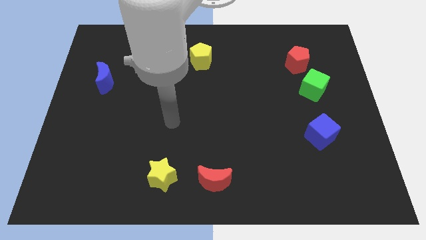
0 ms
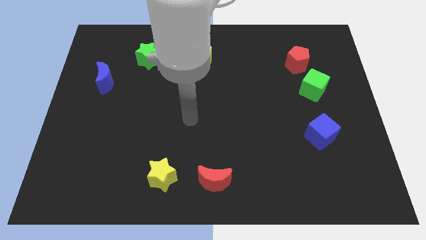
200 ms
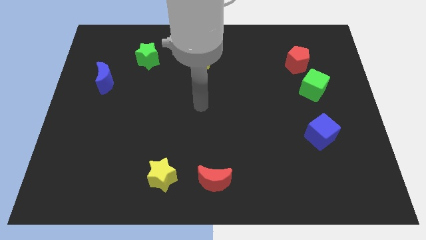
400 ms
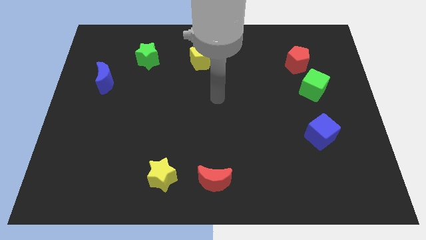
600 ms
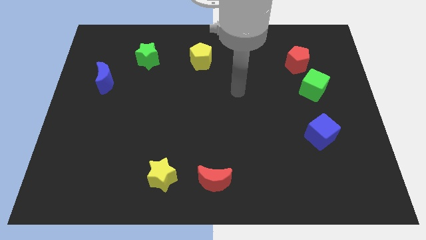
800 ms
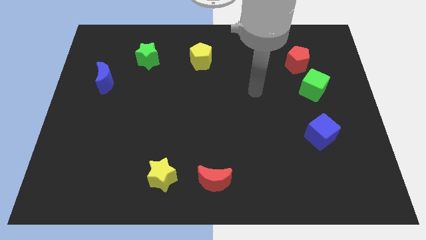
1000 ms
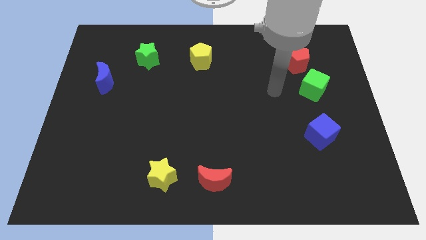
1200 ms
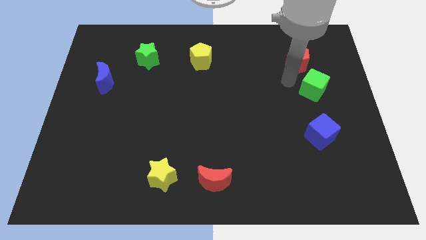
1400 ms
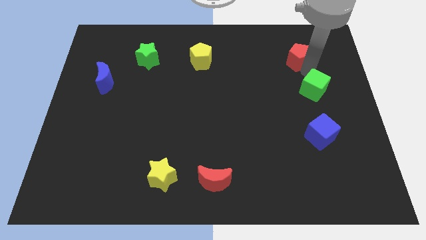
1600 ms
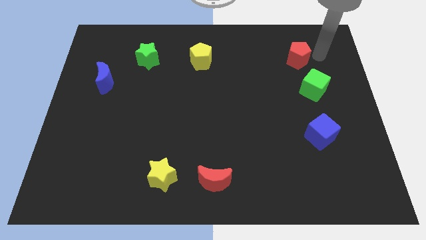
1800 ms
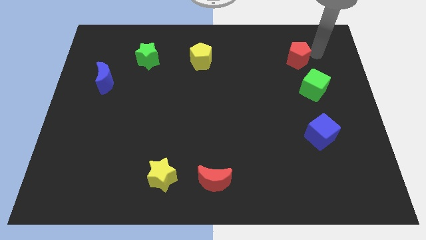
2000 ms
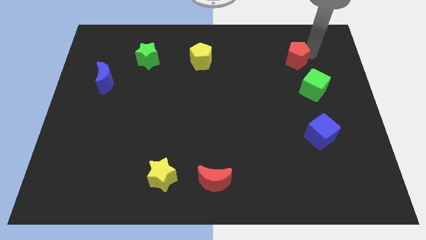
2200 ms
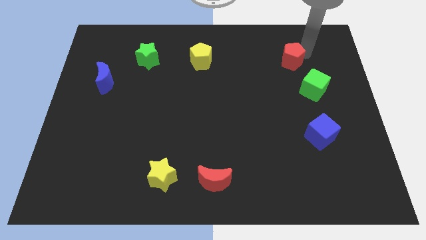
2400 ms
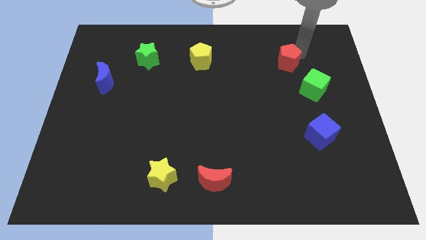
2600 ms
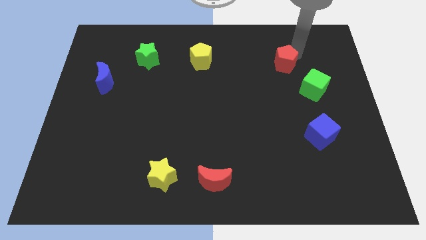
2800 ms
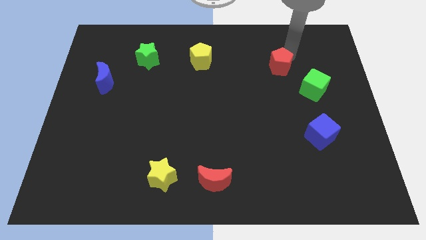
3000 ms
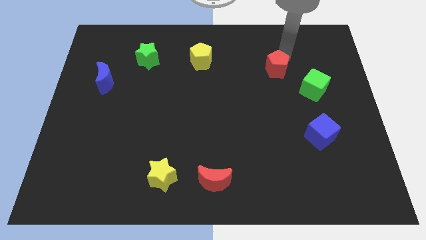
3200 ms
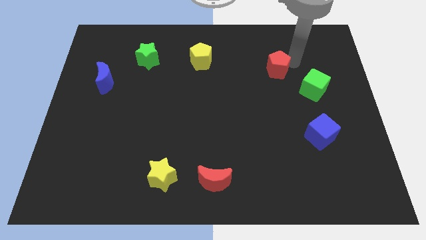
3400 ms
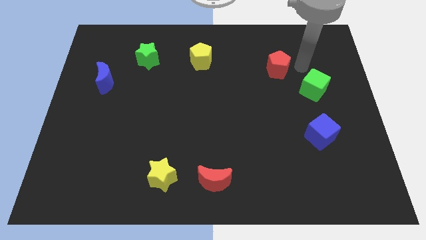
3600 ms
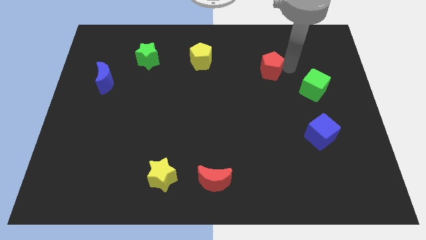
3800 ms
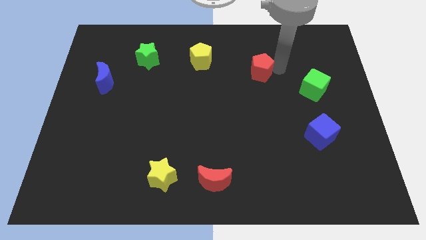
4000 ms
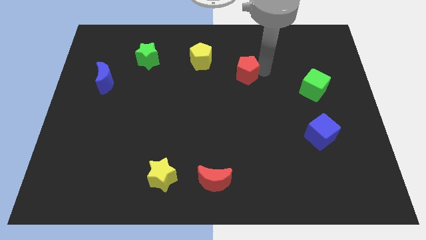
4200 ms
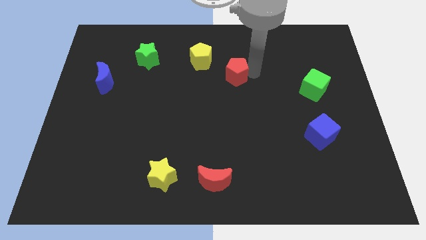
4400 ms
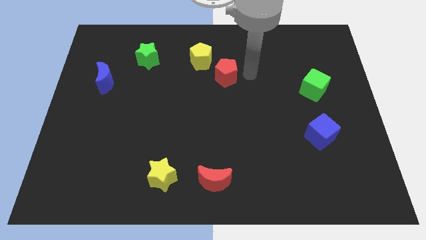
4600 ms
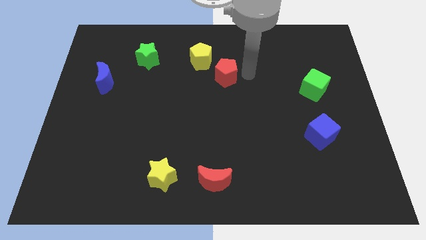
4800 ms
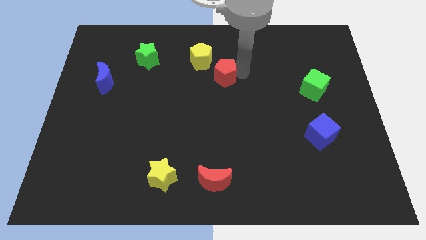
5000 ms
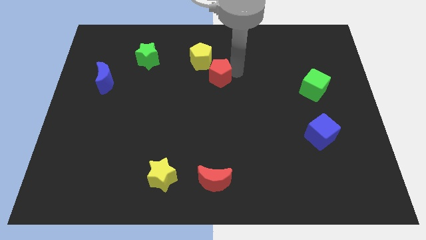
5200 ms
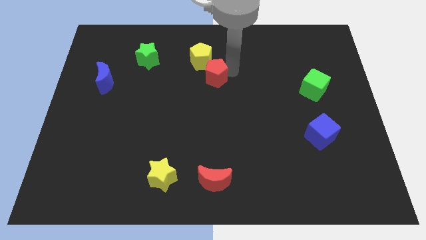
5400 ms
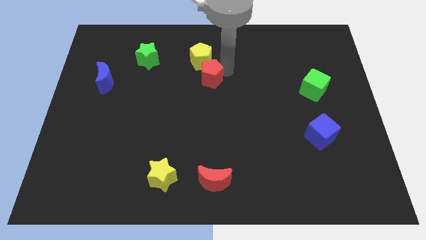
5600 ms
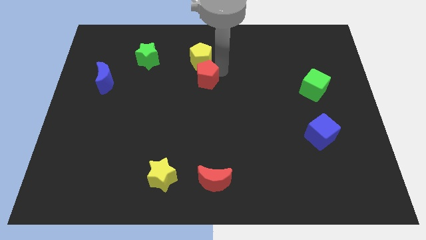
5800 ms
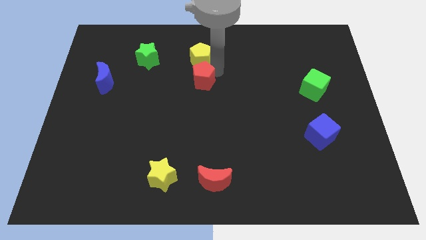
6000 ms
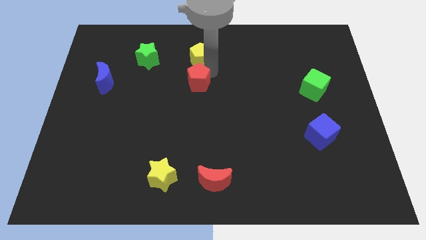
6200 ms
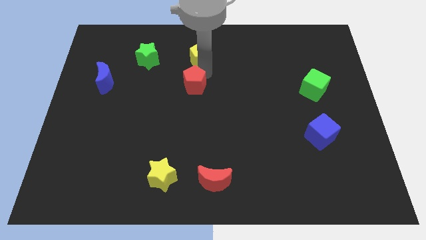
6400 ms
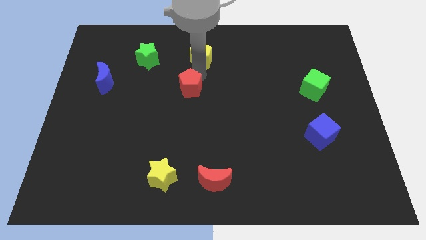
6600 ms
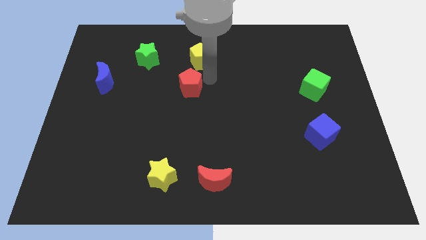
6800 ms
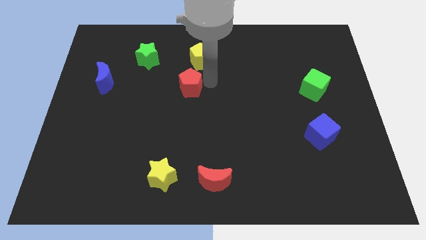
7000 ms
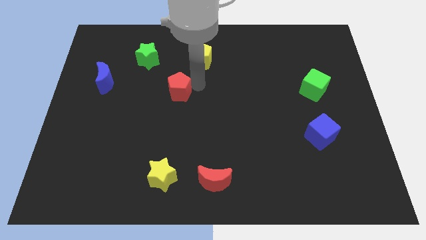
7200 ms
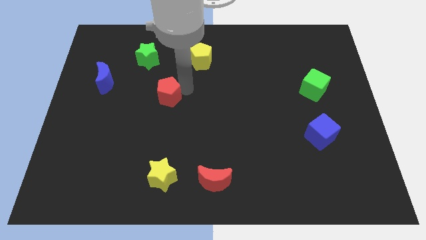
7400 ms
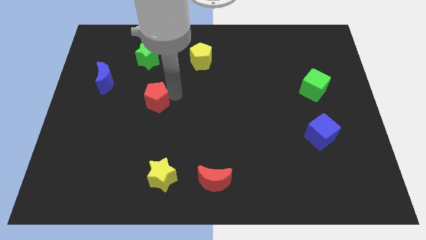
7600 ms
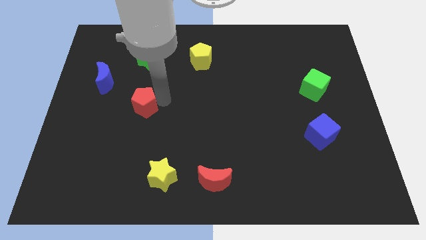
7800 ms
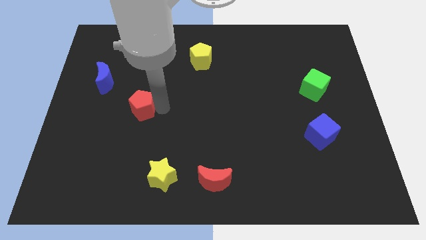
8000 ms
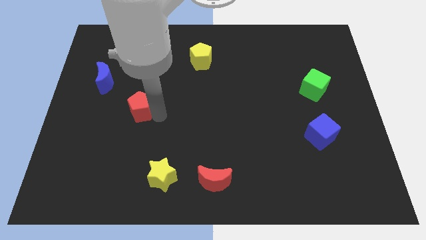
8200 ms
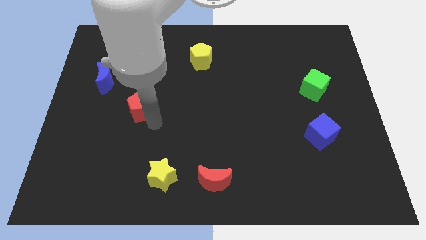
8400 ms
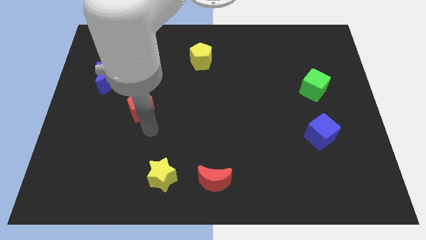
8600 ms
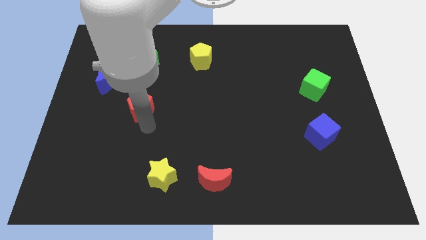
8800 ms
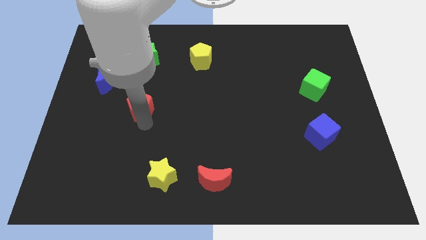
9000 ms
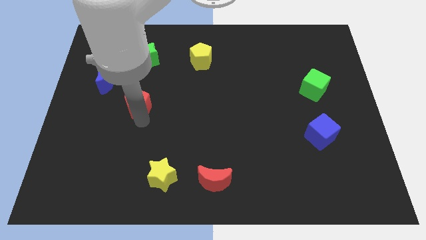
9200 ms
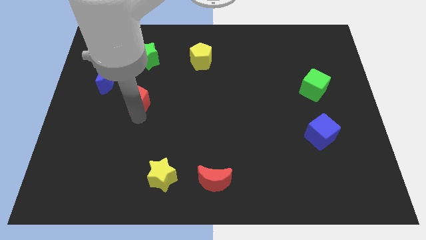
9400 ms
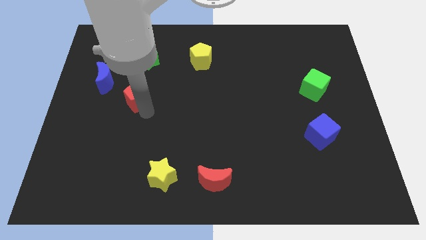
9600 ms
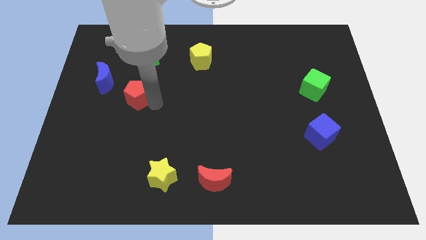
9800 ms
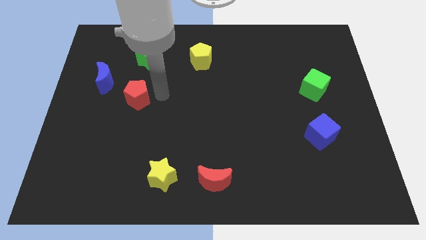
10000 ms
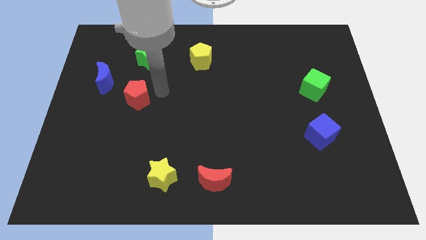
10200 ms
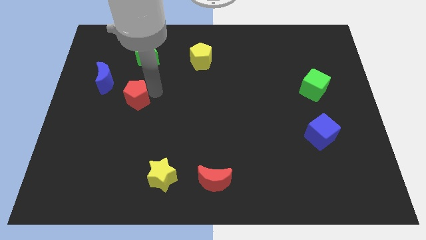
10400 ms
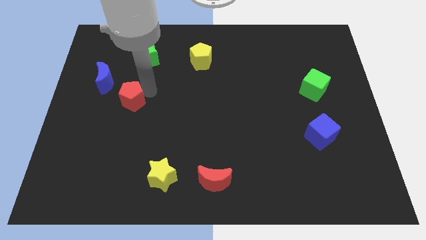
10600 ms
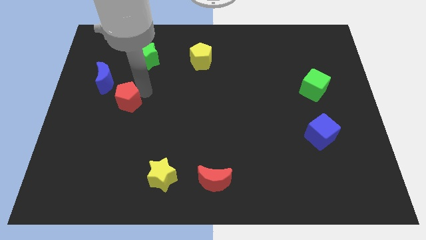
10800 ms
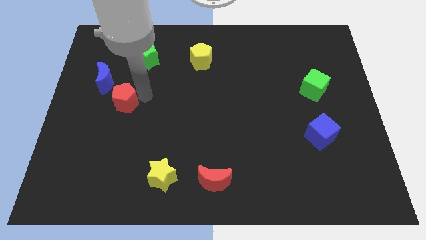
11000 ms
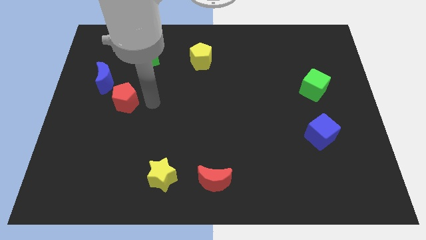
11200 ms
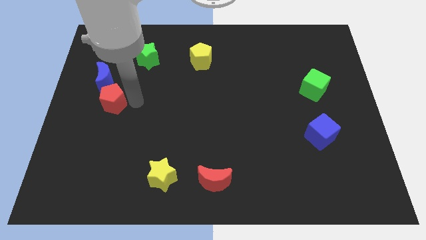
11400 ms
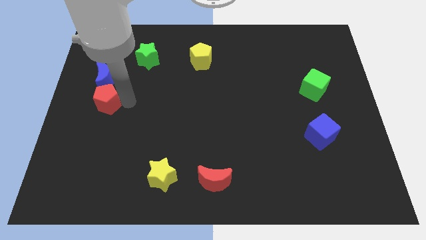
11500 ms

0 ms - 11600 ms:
slide the red pentagon to the center left

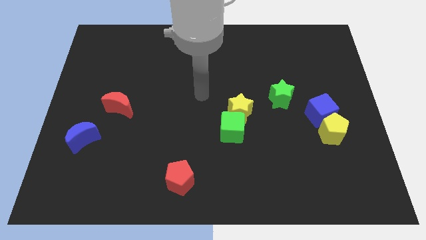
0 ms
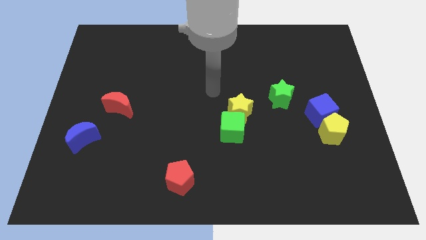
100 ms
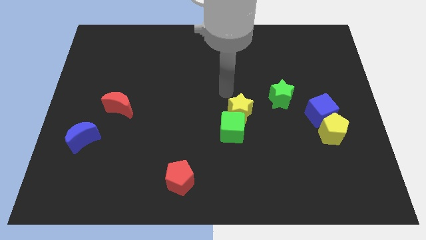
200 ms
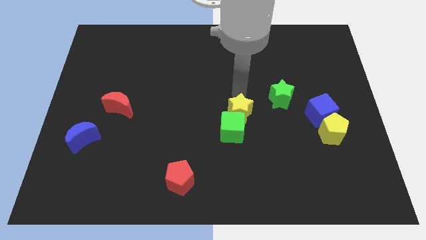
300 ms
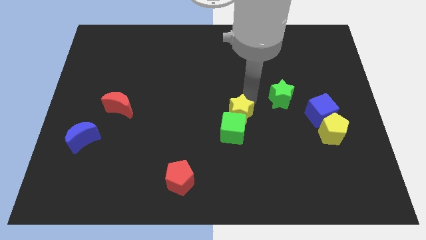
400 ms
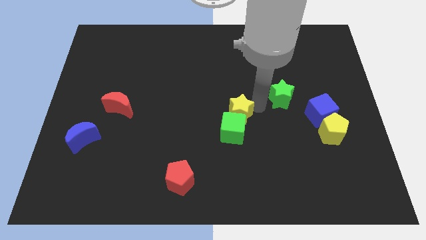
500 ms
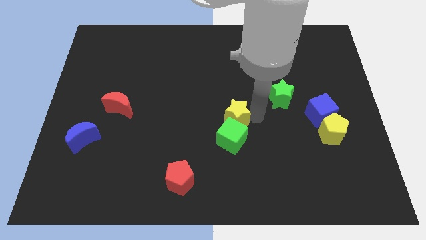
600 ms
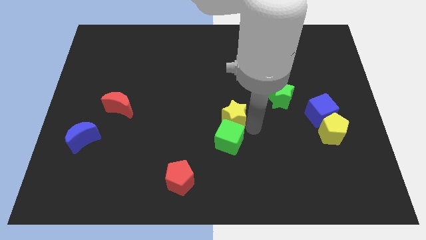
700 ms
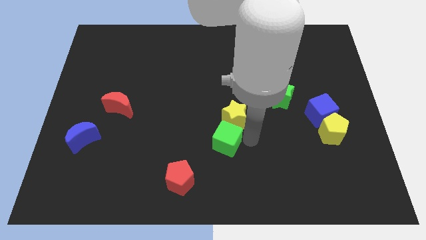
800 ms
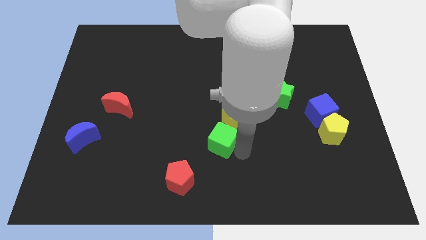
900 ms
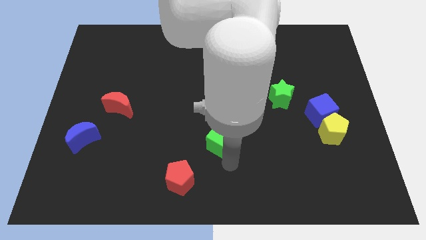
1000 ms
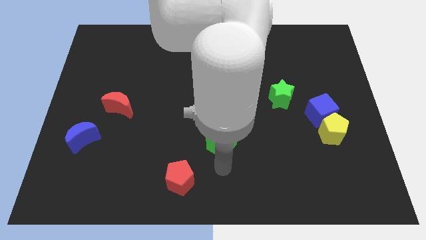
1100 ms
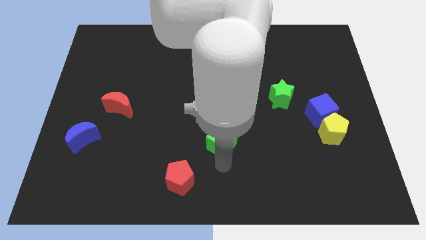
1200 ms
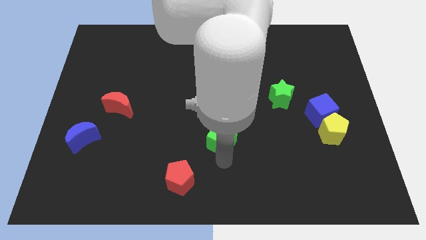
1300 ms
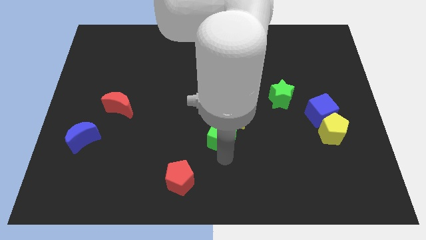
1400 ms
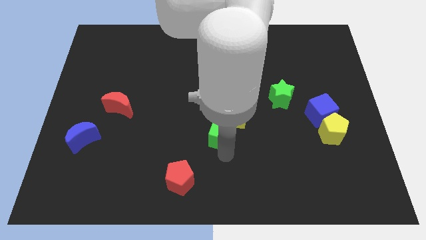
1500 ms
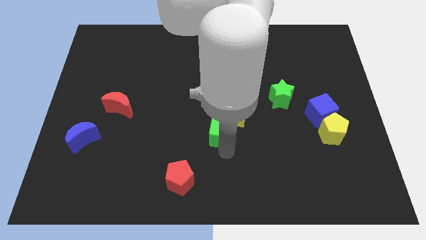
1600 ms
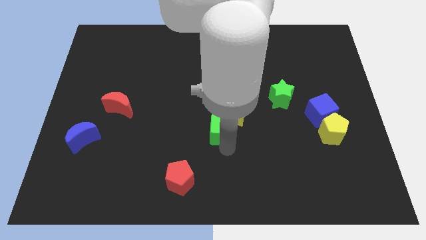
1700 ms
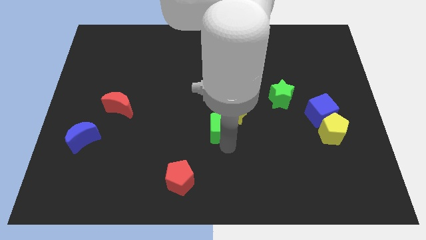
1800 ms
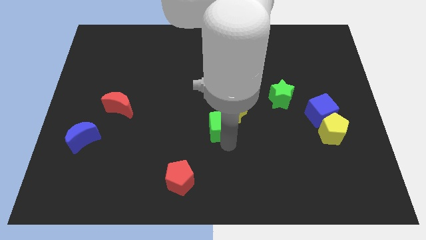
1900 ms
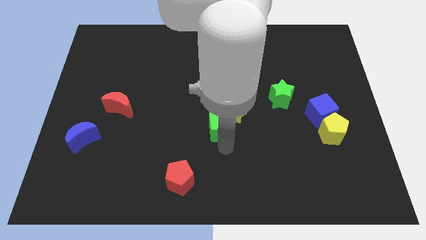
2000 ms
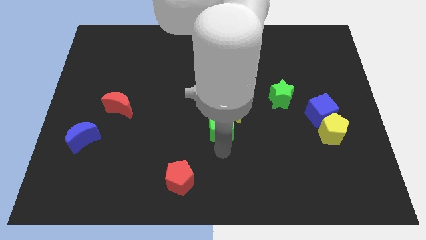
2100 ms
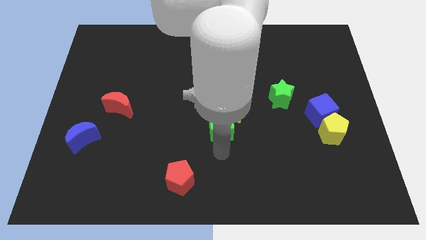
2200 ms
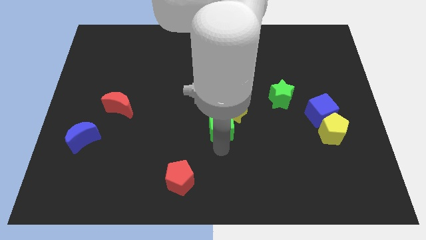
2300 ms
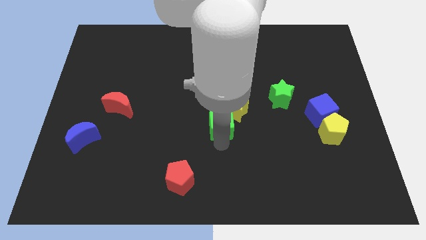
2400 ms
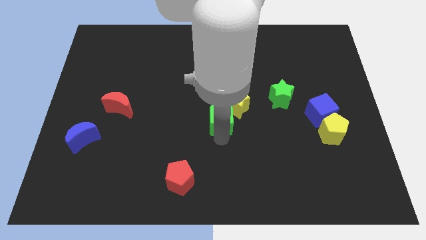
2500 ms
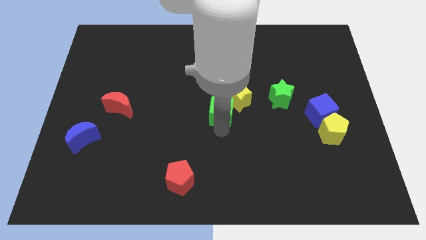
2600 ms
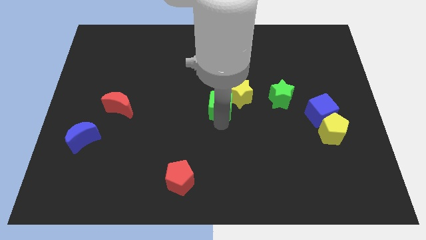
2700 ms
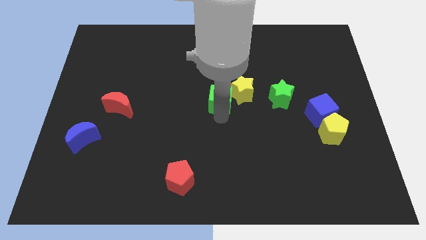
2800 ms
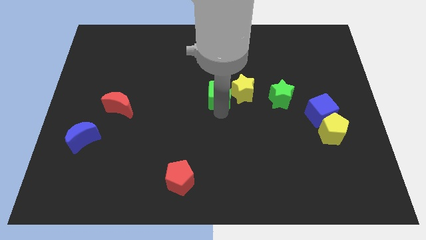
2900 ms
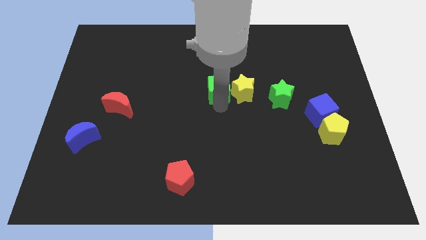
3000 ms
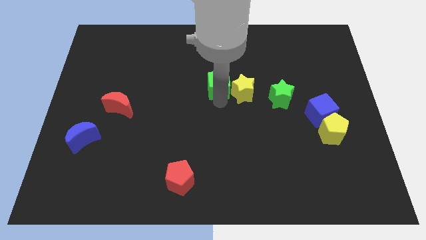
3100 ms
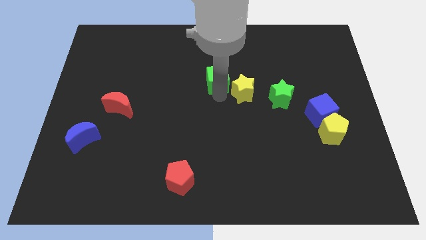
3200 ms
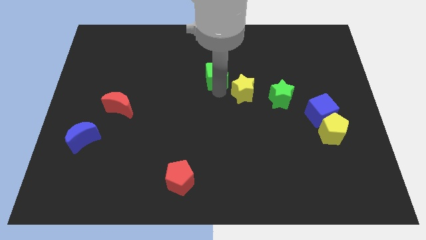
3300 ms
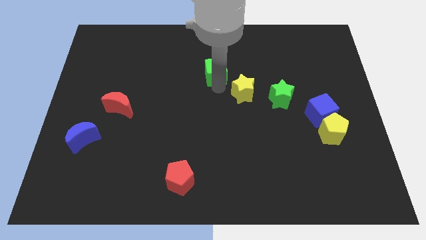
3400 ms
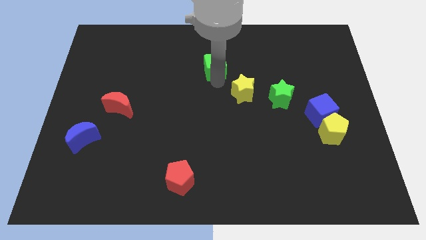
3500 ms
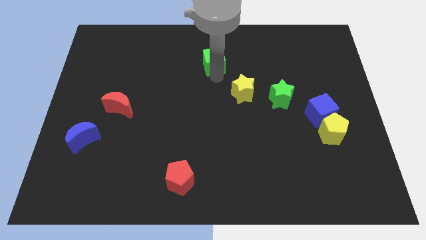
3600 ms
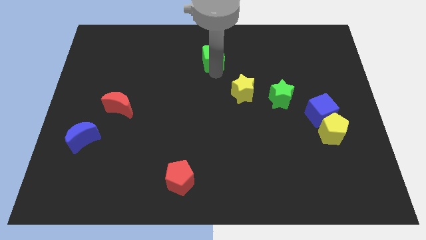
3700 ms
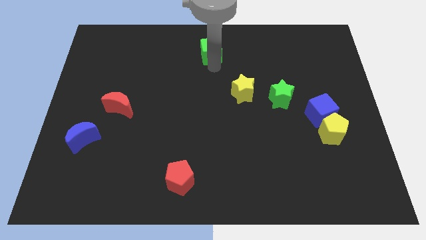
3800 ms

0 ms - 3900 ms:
push the green cube to the top
